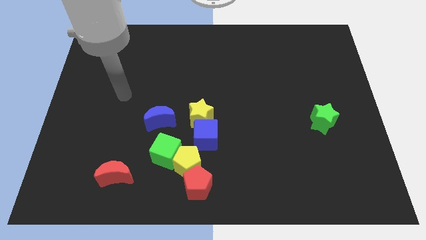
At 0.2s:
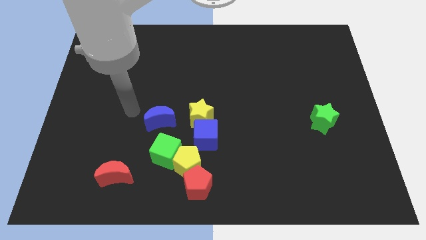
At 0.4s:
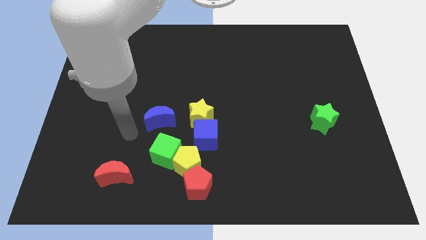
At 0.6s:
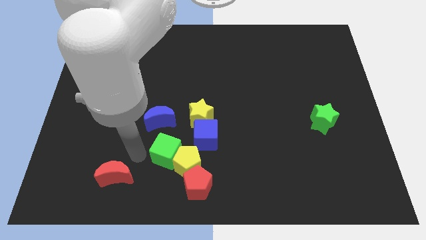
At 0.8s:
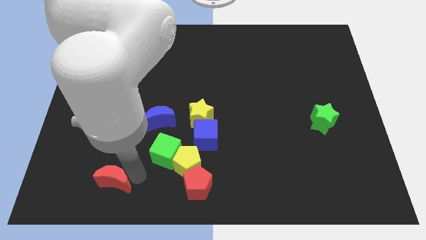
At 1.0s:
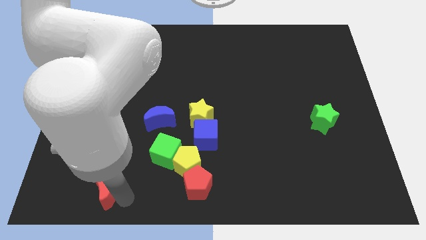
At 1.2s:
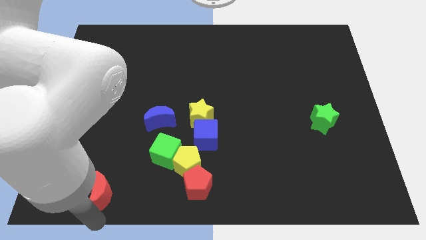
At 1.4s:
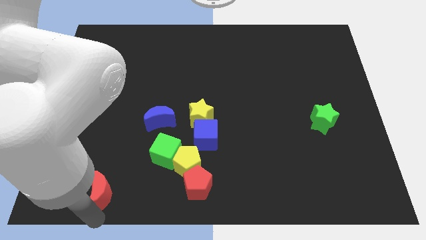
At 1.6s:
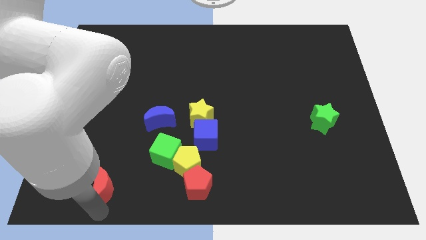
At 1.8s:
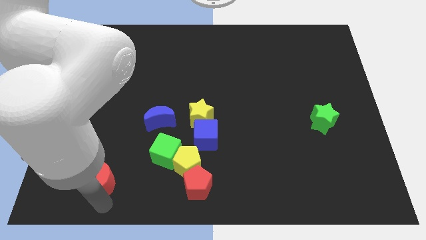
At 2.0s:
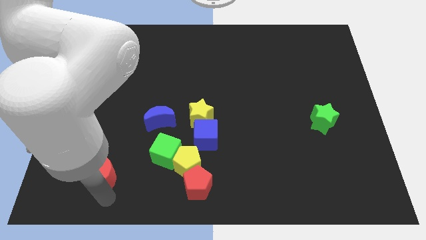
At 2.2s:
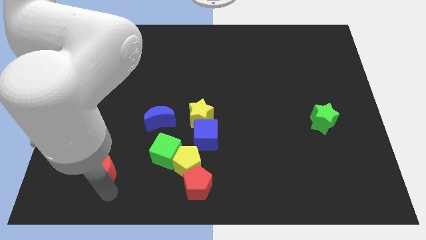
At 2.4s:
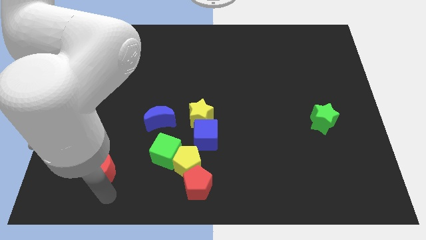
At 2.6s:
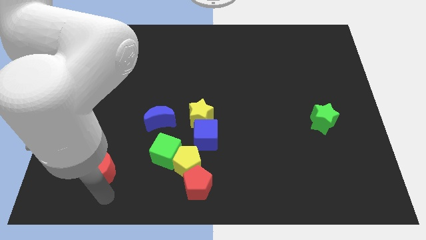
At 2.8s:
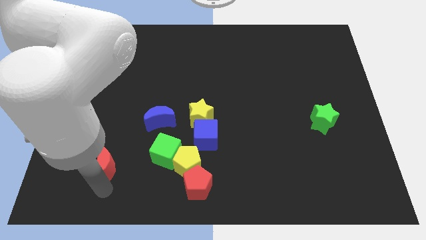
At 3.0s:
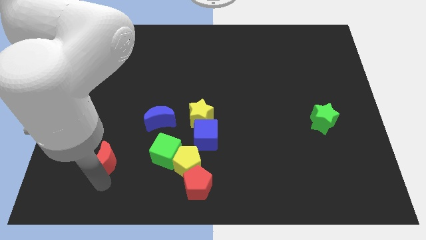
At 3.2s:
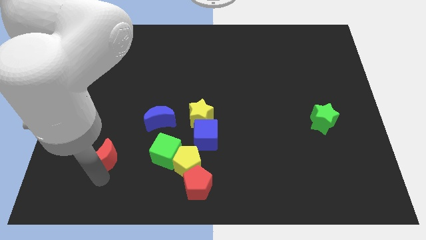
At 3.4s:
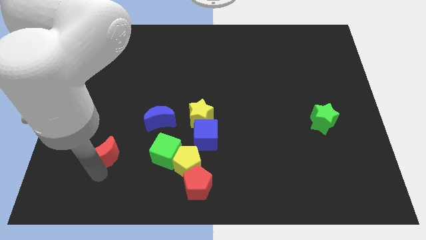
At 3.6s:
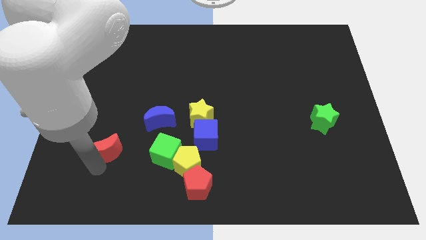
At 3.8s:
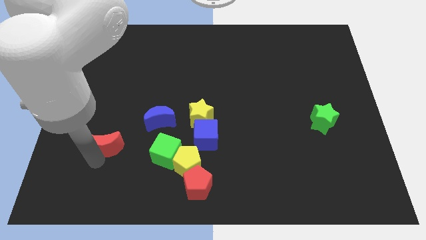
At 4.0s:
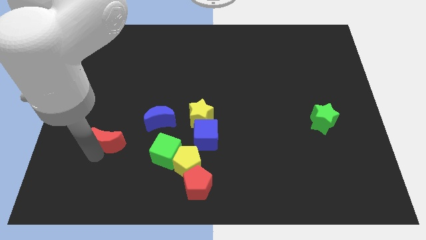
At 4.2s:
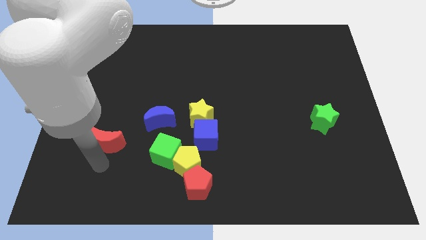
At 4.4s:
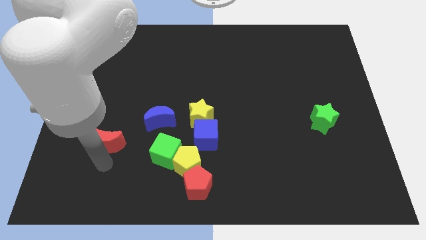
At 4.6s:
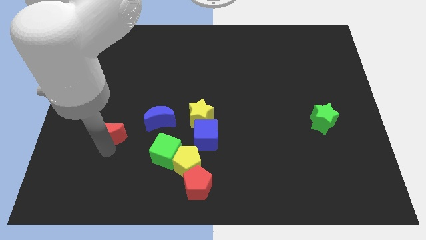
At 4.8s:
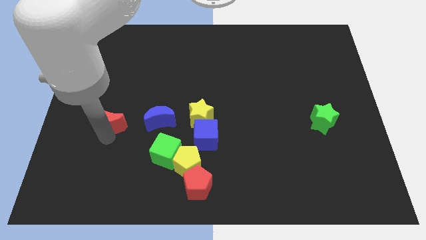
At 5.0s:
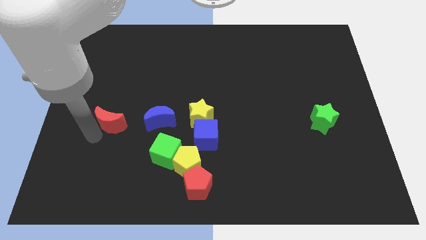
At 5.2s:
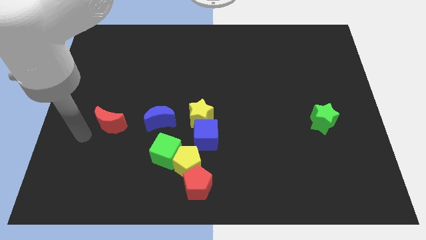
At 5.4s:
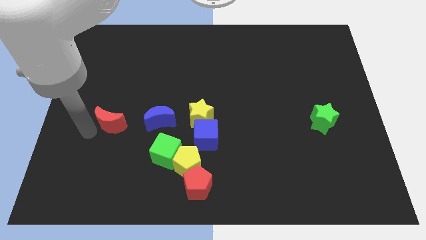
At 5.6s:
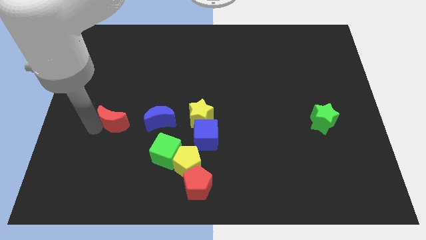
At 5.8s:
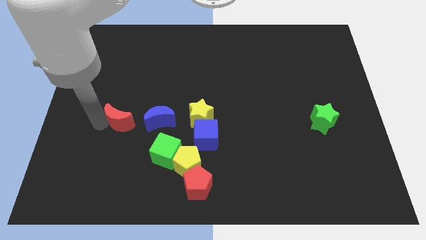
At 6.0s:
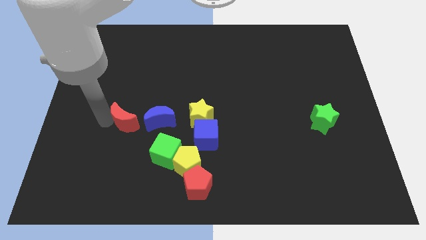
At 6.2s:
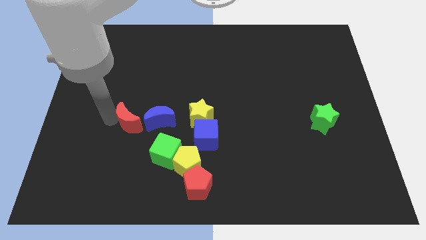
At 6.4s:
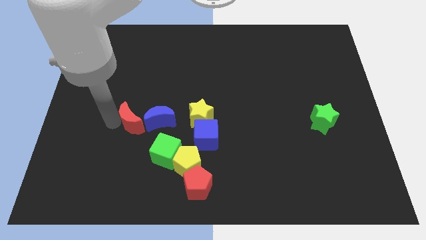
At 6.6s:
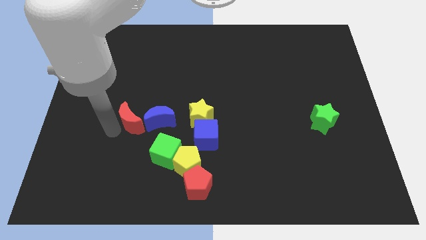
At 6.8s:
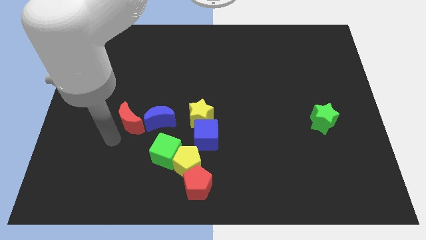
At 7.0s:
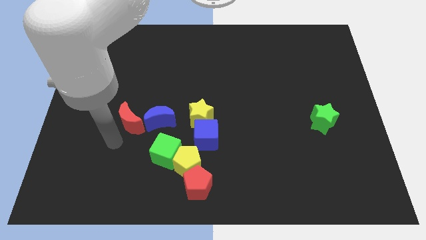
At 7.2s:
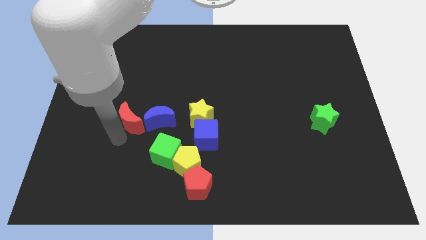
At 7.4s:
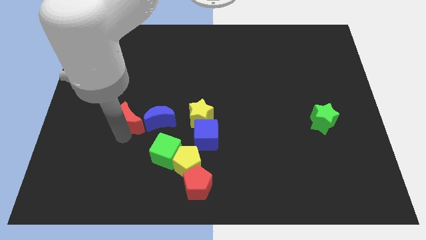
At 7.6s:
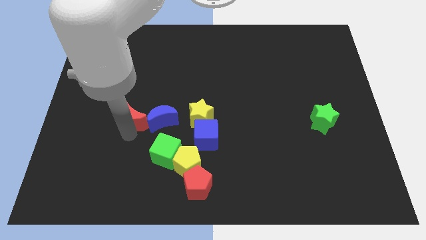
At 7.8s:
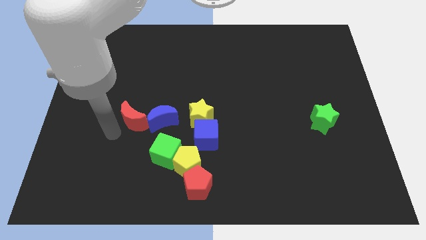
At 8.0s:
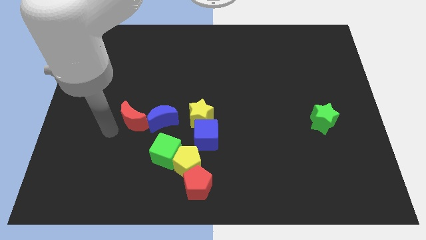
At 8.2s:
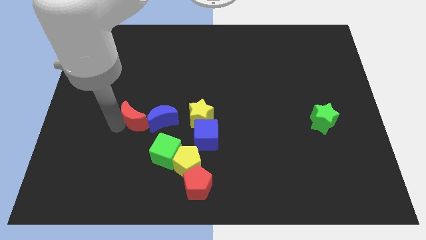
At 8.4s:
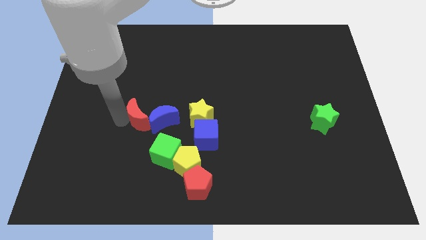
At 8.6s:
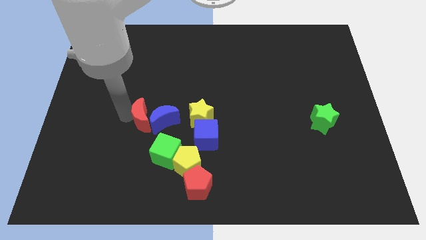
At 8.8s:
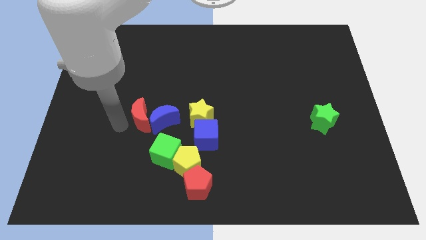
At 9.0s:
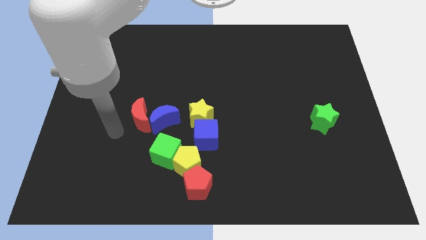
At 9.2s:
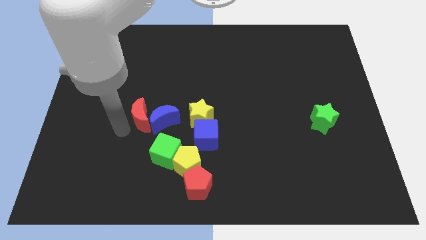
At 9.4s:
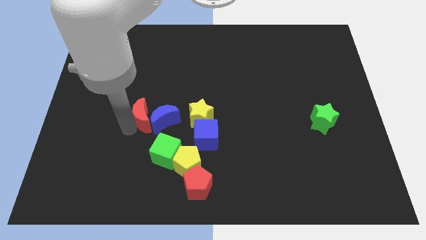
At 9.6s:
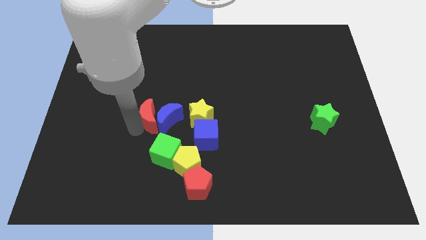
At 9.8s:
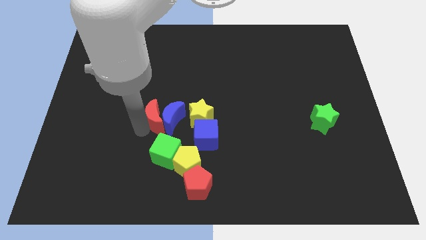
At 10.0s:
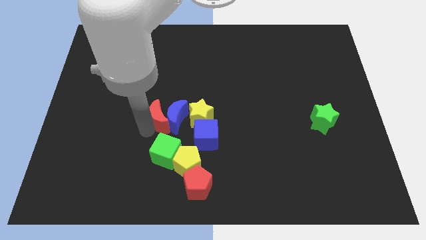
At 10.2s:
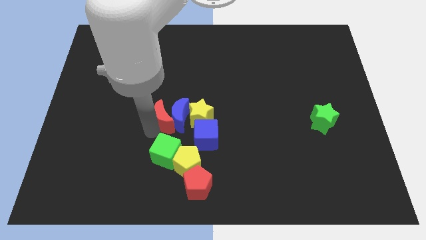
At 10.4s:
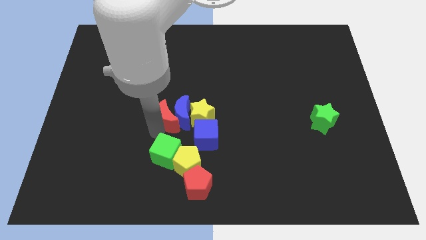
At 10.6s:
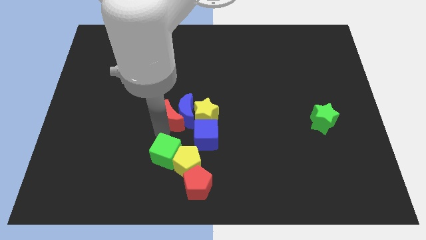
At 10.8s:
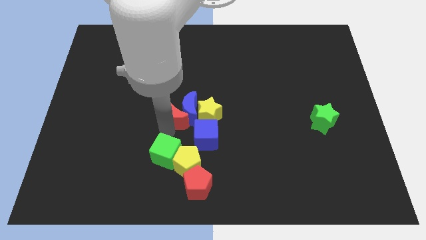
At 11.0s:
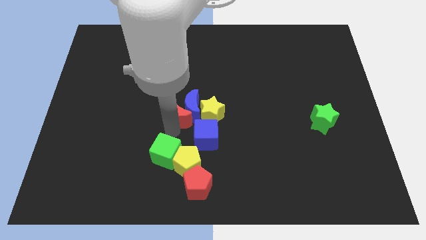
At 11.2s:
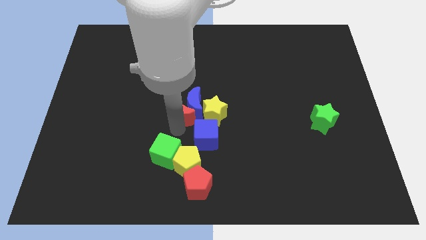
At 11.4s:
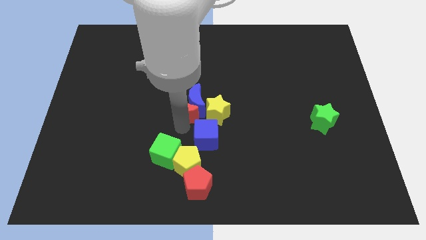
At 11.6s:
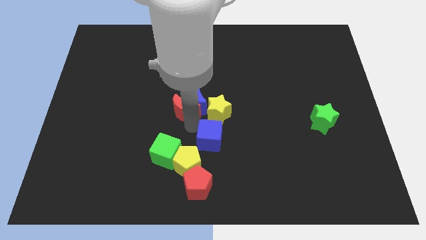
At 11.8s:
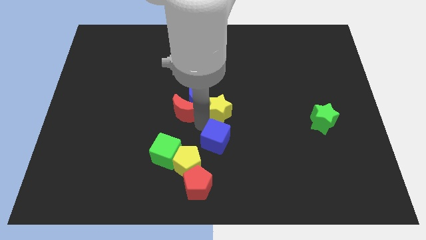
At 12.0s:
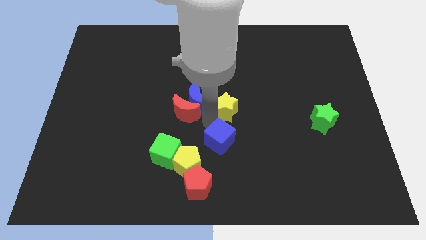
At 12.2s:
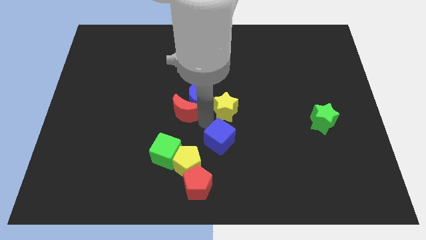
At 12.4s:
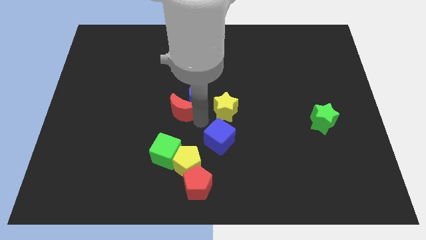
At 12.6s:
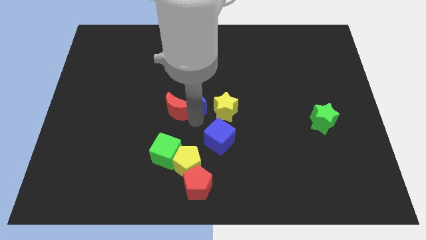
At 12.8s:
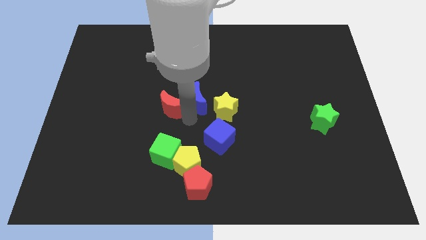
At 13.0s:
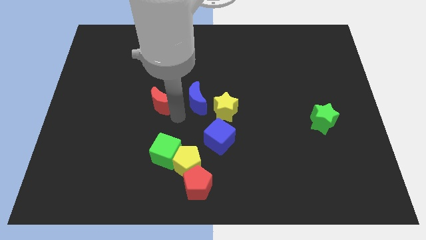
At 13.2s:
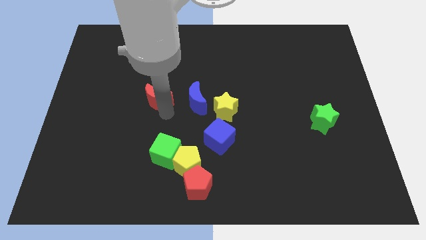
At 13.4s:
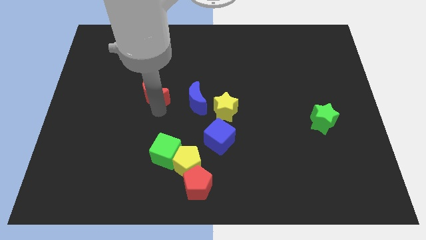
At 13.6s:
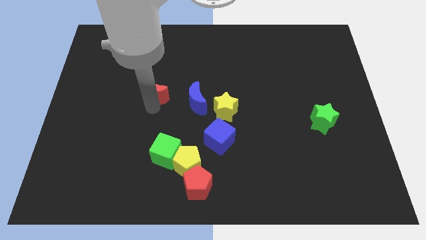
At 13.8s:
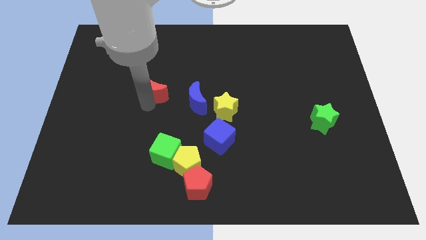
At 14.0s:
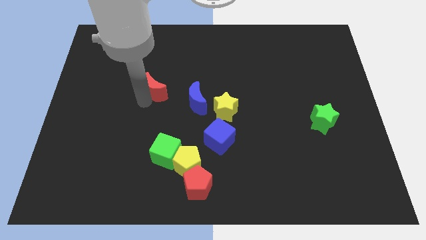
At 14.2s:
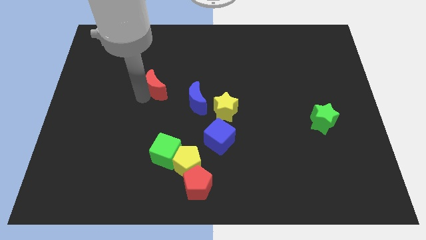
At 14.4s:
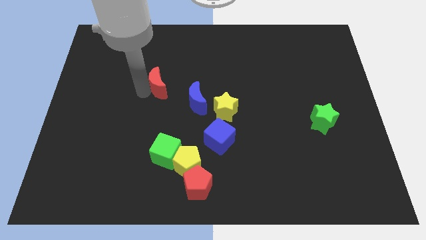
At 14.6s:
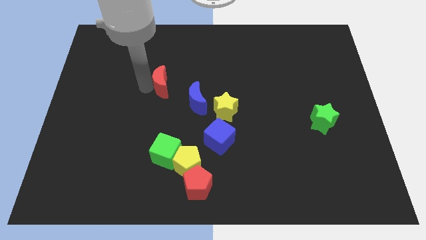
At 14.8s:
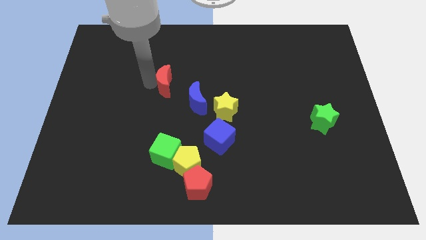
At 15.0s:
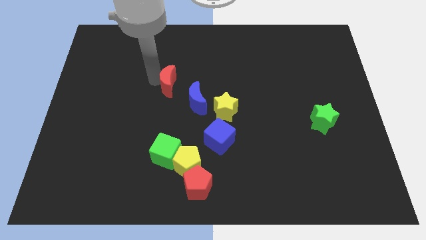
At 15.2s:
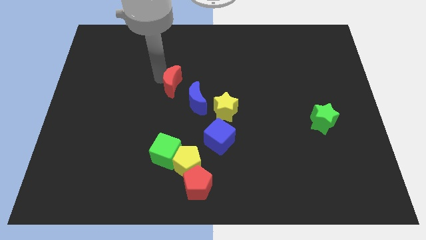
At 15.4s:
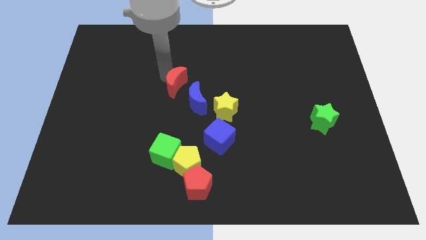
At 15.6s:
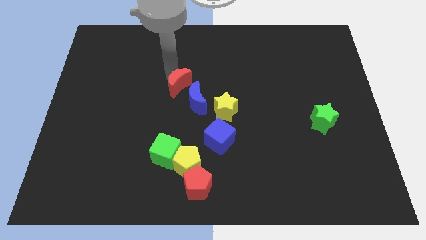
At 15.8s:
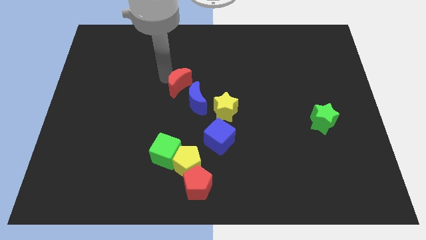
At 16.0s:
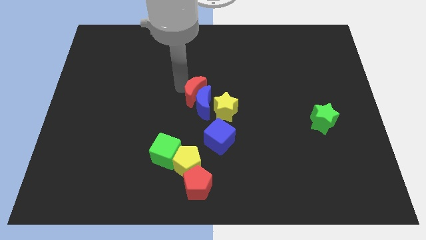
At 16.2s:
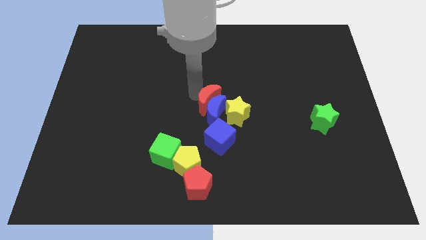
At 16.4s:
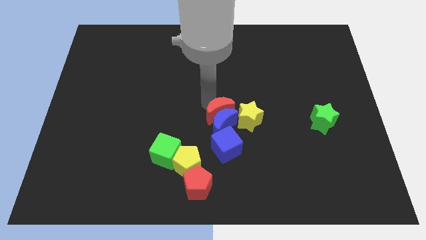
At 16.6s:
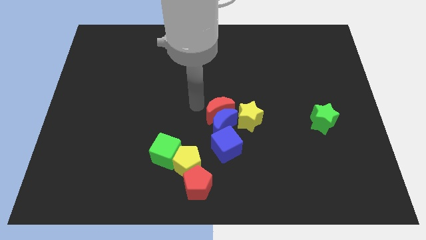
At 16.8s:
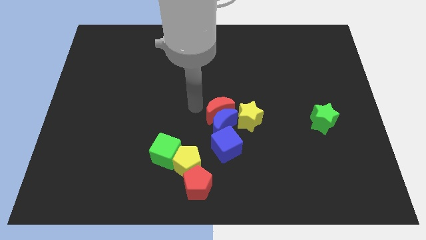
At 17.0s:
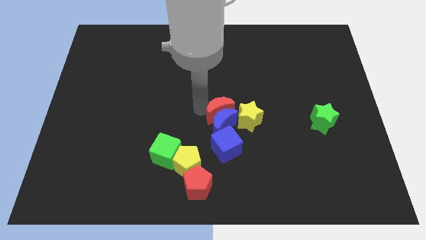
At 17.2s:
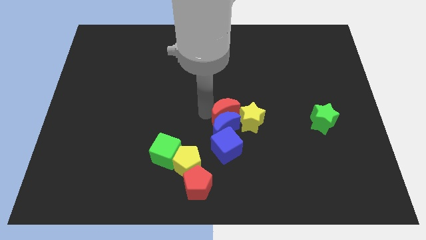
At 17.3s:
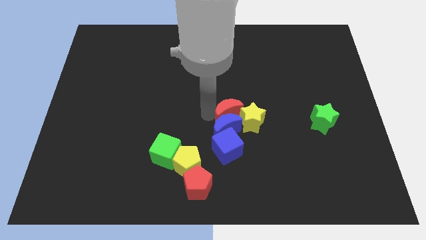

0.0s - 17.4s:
move the red moon to the yellow star
